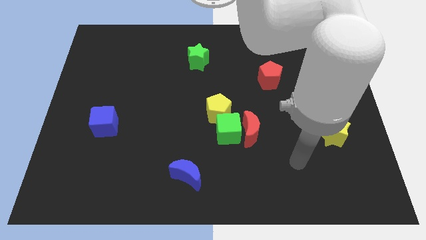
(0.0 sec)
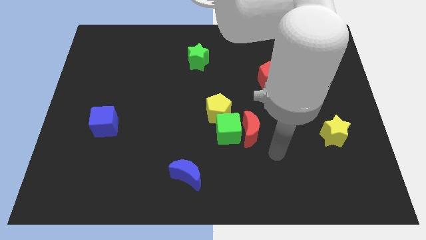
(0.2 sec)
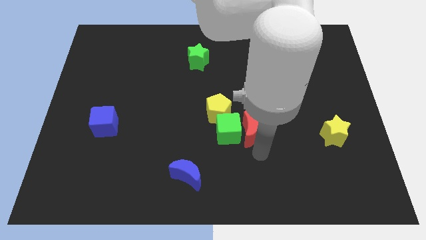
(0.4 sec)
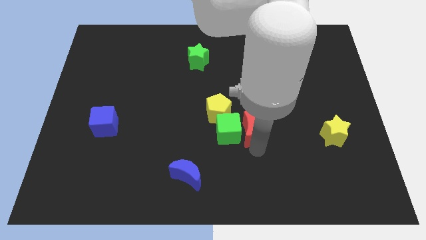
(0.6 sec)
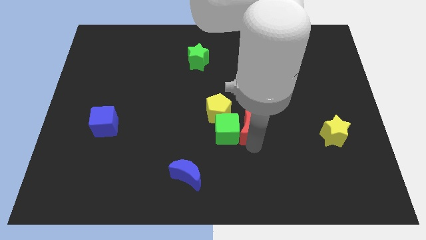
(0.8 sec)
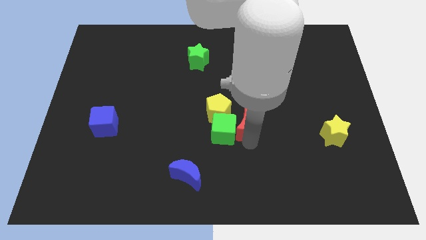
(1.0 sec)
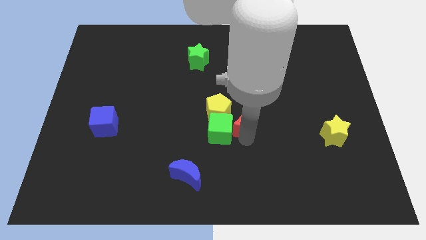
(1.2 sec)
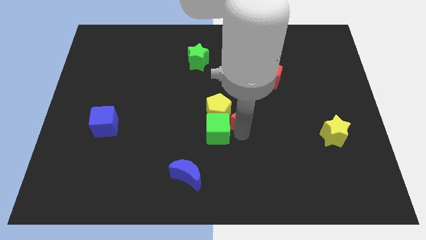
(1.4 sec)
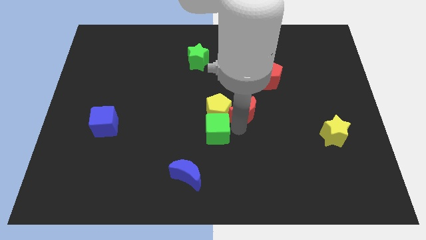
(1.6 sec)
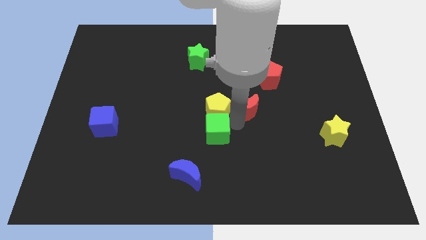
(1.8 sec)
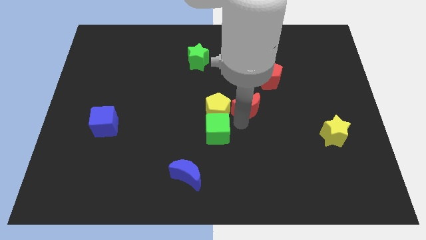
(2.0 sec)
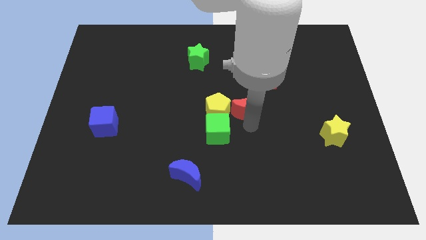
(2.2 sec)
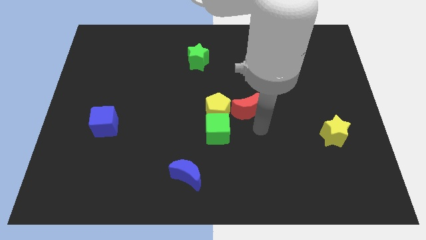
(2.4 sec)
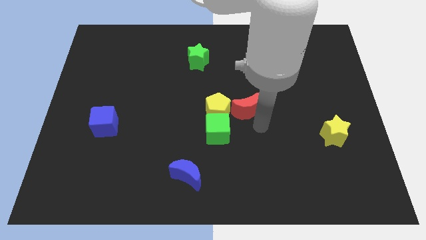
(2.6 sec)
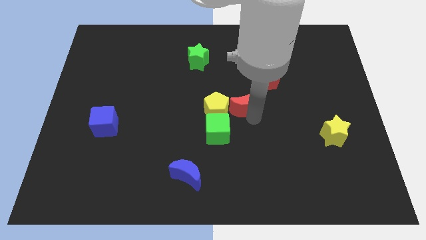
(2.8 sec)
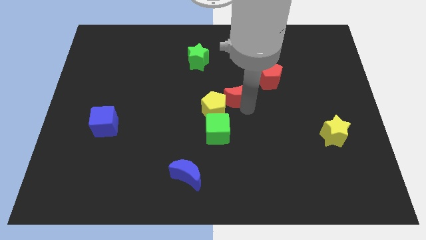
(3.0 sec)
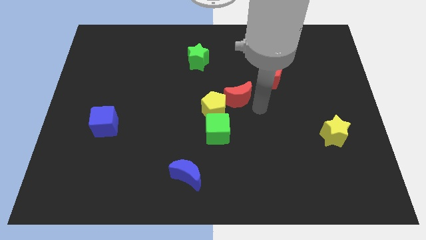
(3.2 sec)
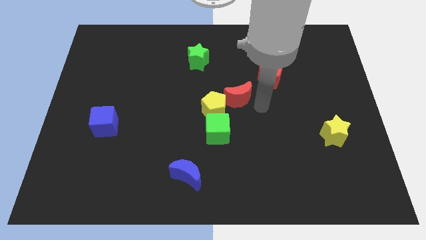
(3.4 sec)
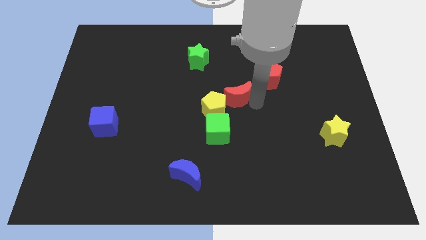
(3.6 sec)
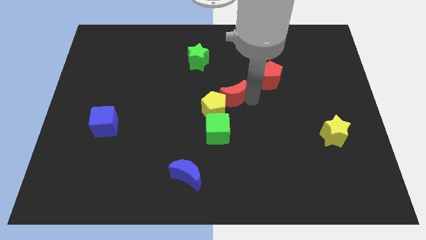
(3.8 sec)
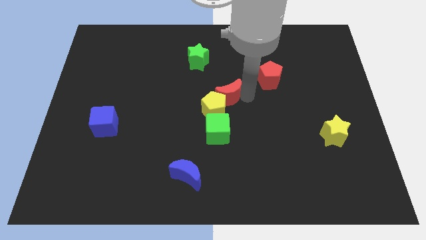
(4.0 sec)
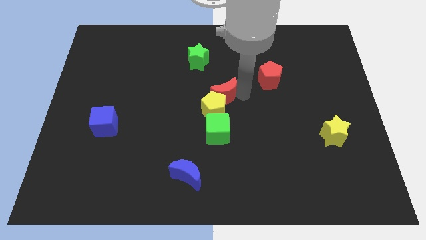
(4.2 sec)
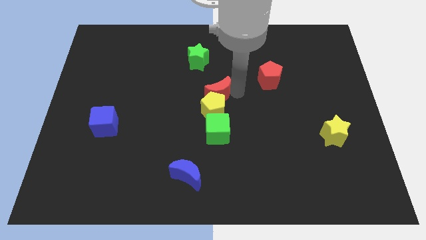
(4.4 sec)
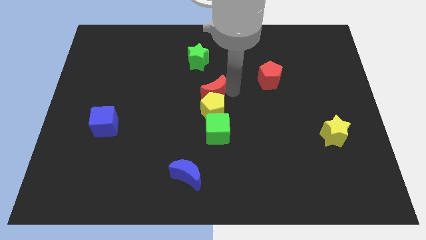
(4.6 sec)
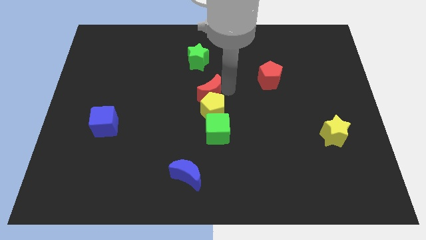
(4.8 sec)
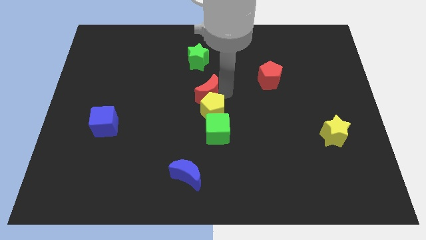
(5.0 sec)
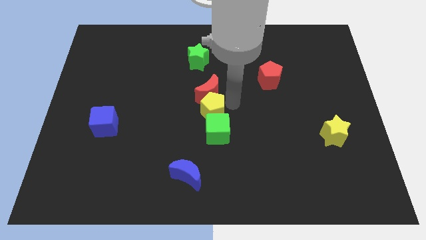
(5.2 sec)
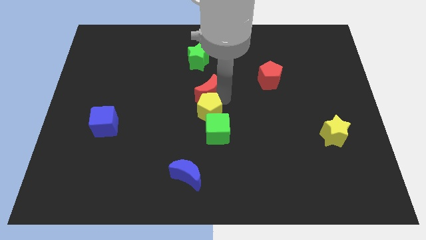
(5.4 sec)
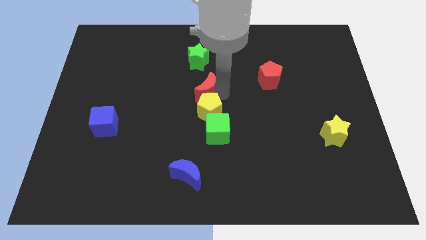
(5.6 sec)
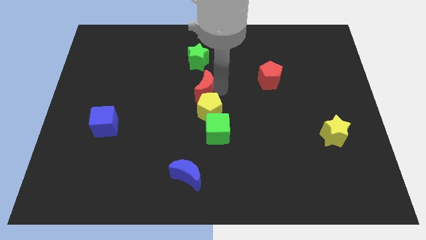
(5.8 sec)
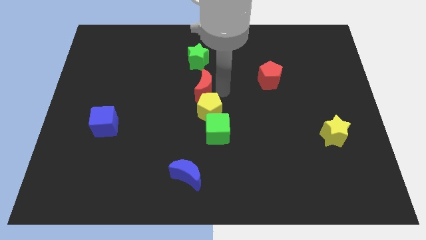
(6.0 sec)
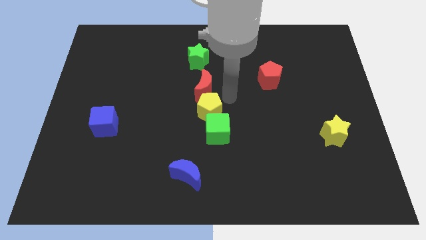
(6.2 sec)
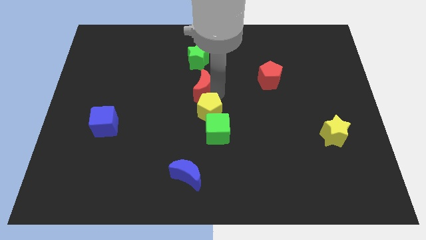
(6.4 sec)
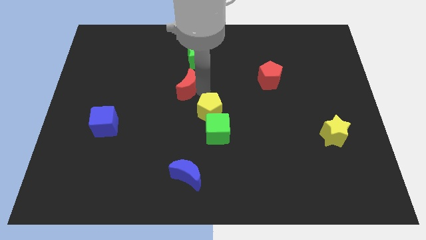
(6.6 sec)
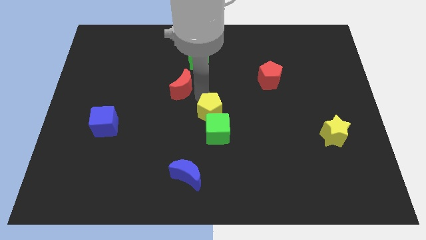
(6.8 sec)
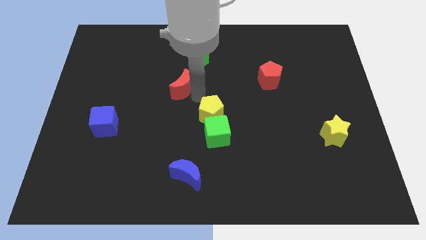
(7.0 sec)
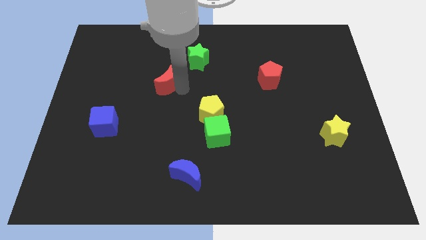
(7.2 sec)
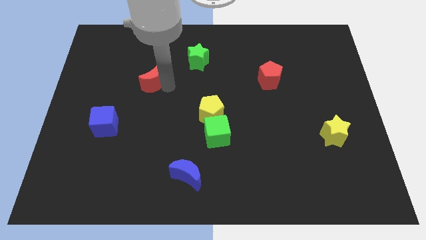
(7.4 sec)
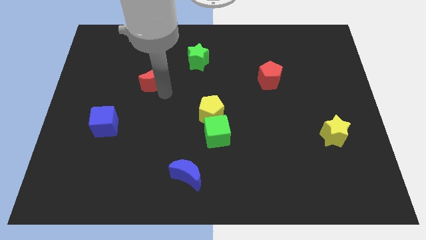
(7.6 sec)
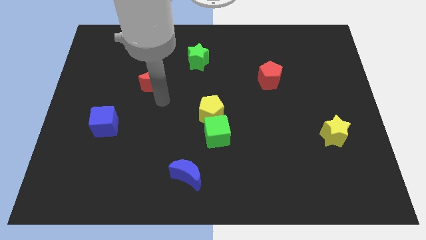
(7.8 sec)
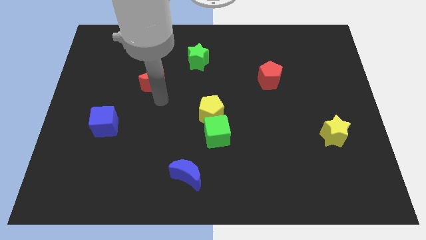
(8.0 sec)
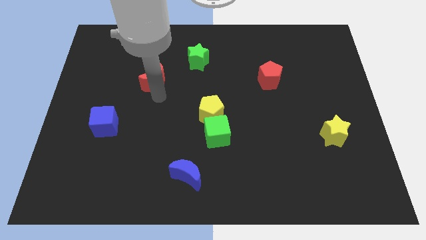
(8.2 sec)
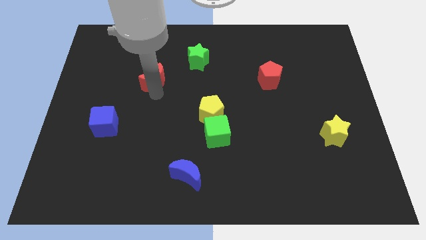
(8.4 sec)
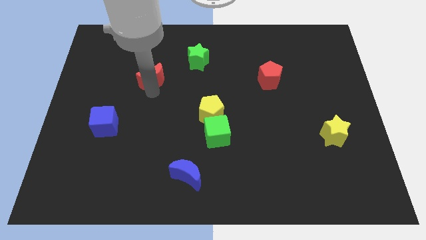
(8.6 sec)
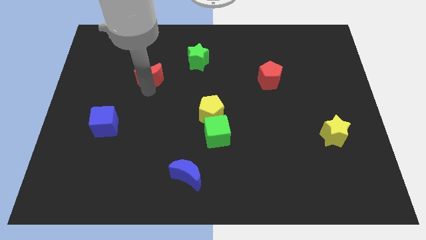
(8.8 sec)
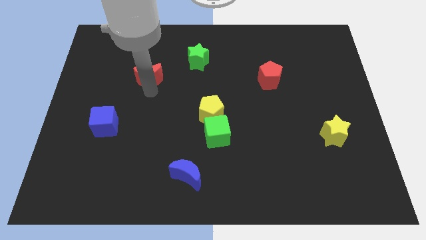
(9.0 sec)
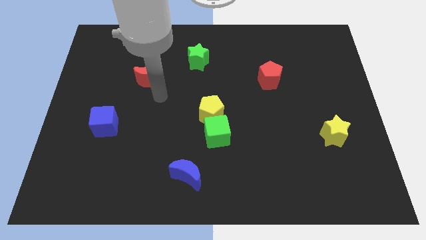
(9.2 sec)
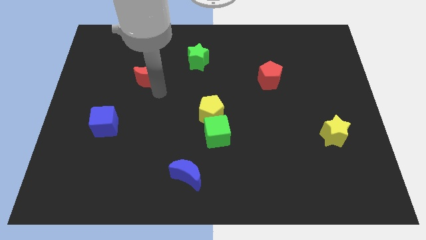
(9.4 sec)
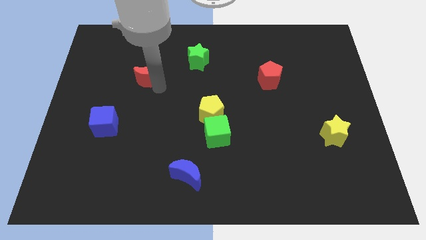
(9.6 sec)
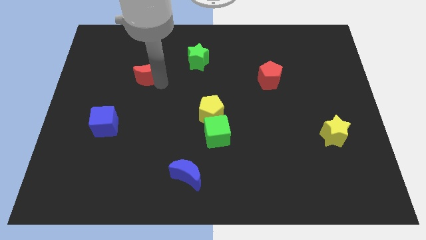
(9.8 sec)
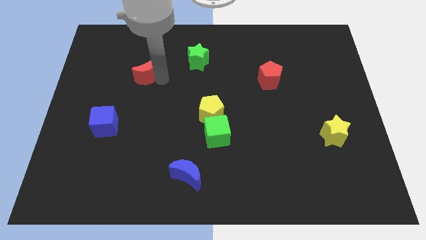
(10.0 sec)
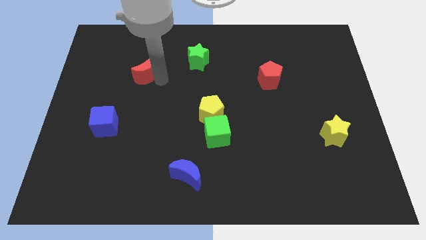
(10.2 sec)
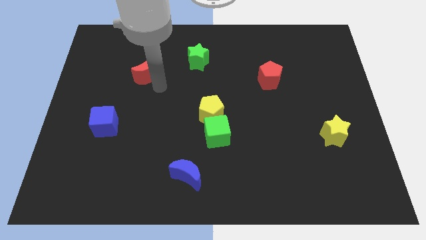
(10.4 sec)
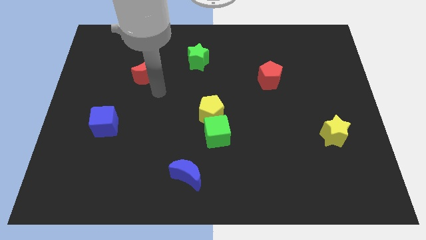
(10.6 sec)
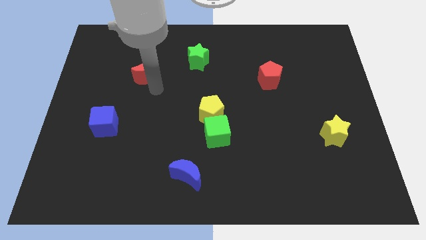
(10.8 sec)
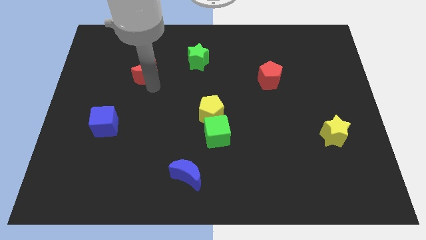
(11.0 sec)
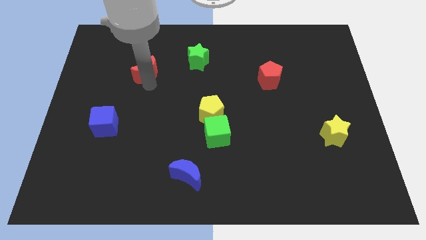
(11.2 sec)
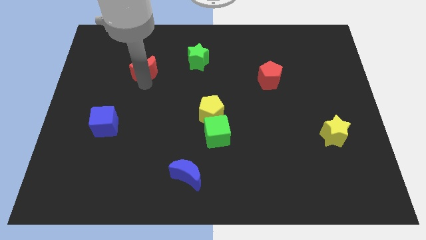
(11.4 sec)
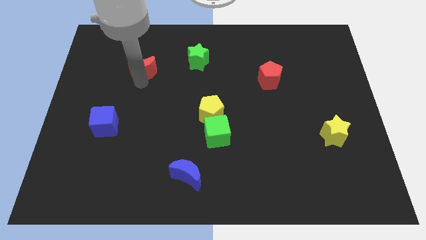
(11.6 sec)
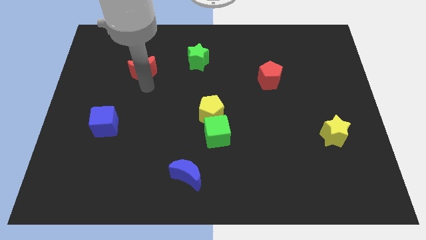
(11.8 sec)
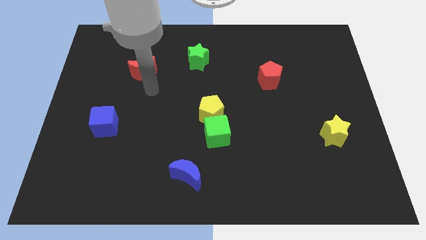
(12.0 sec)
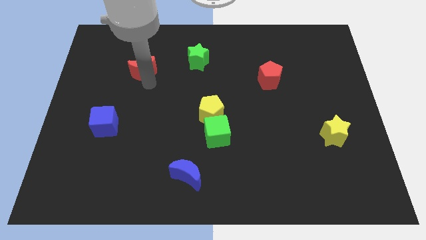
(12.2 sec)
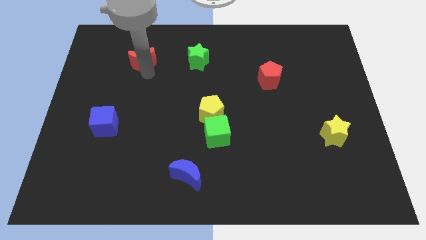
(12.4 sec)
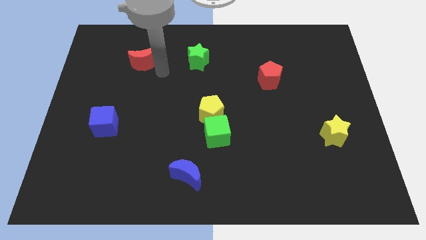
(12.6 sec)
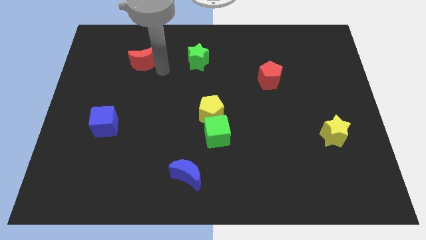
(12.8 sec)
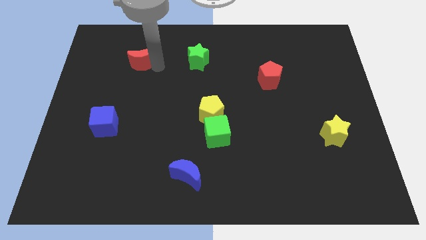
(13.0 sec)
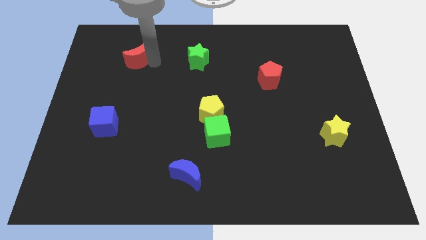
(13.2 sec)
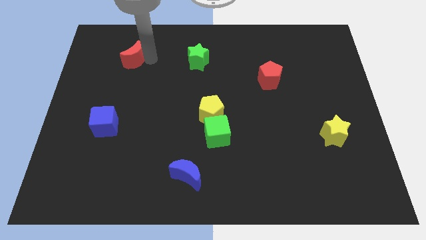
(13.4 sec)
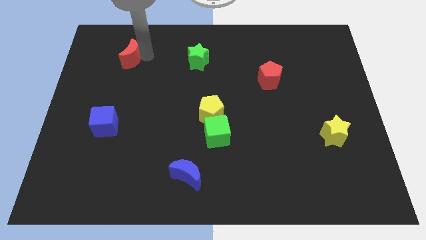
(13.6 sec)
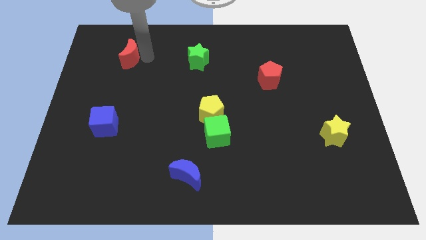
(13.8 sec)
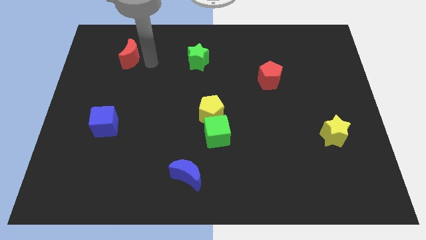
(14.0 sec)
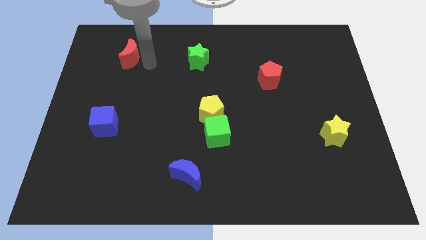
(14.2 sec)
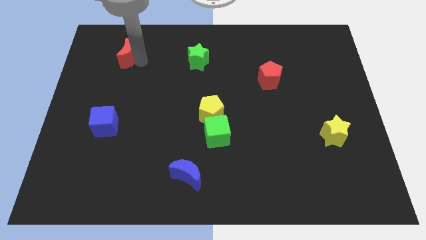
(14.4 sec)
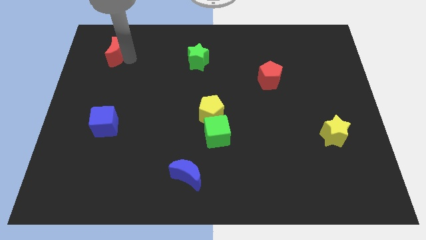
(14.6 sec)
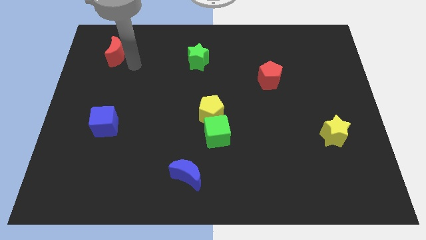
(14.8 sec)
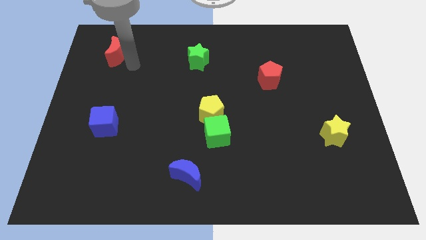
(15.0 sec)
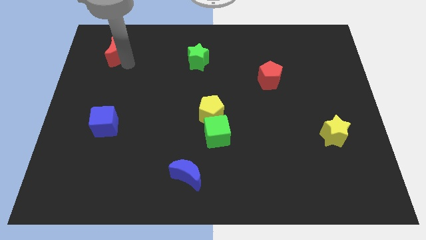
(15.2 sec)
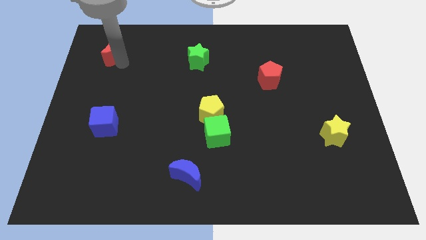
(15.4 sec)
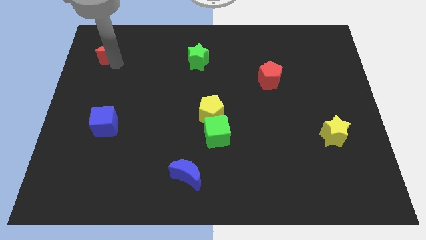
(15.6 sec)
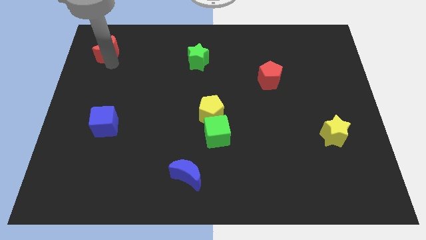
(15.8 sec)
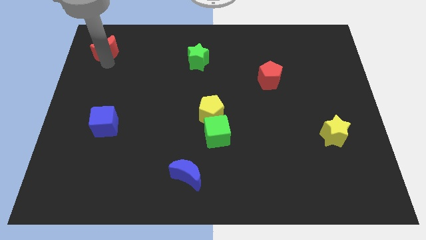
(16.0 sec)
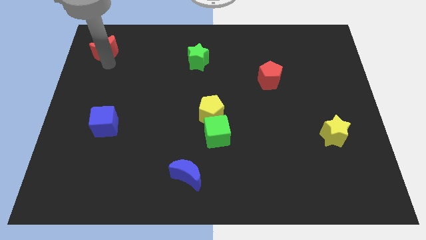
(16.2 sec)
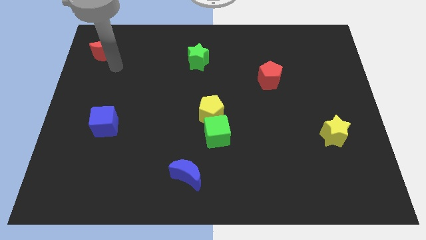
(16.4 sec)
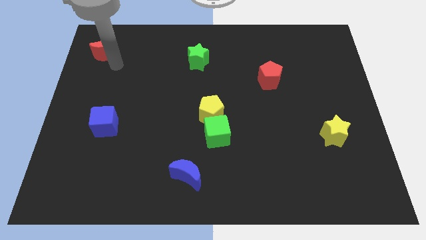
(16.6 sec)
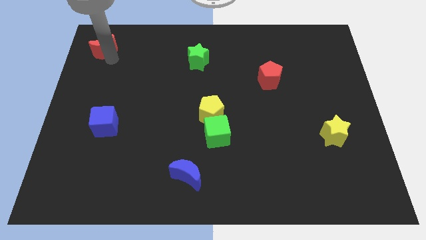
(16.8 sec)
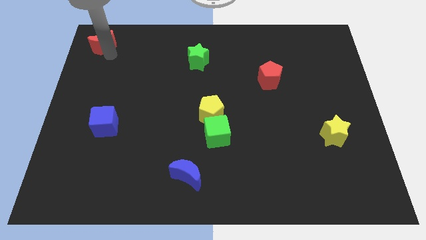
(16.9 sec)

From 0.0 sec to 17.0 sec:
move the red moon to the upper left corner
